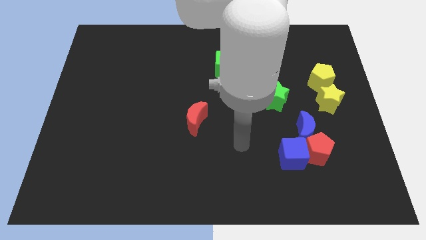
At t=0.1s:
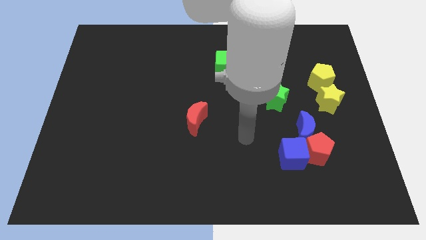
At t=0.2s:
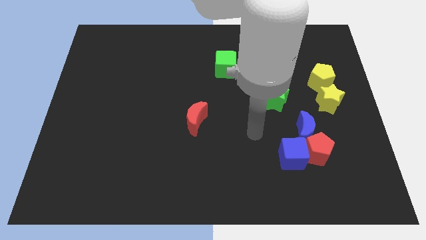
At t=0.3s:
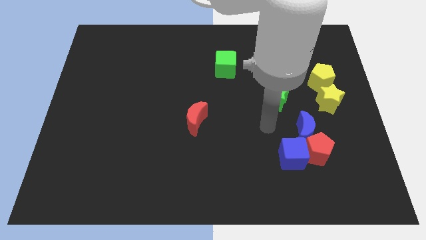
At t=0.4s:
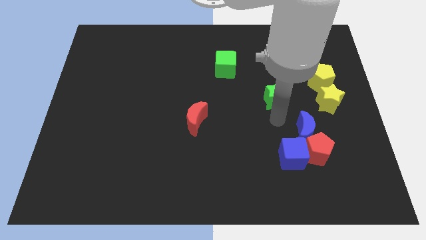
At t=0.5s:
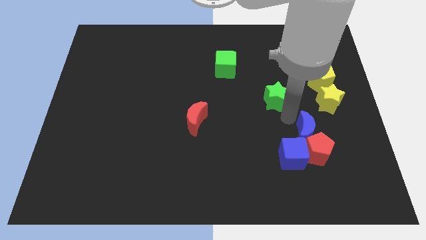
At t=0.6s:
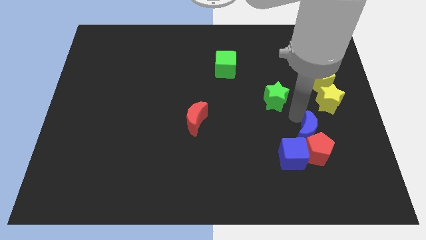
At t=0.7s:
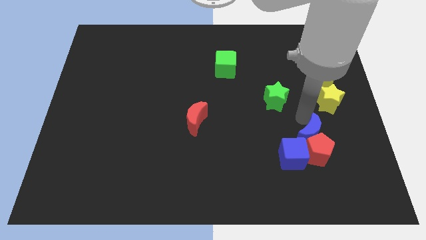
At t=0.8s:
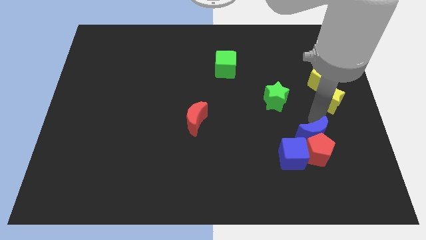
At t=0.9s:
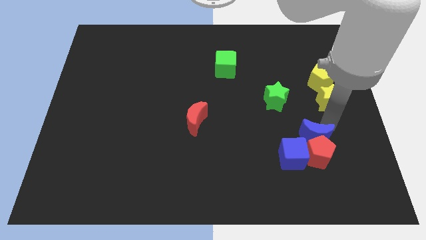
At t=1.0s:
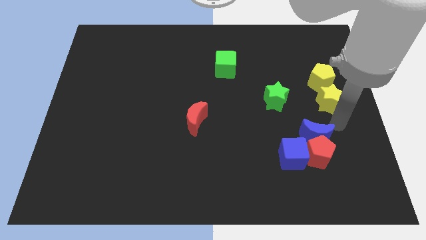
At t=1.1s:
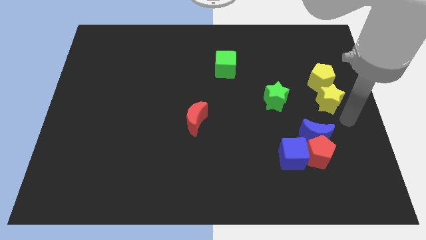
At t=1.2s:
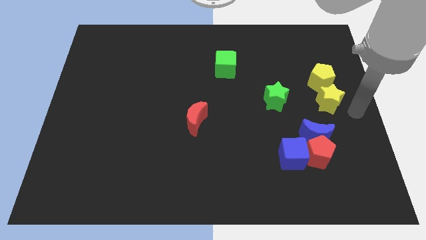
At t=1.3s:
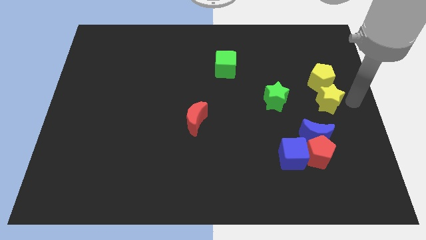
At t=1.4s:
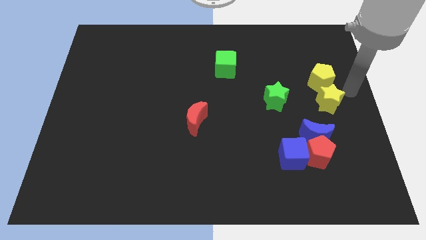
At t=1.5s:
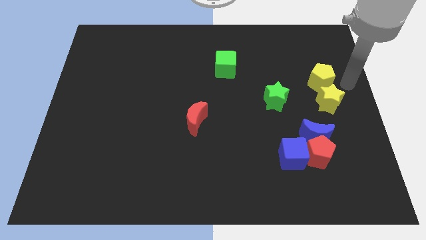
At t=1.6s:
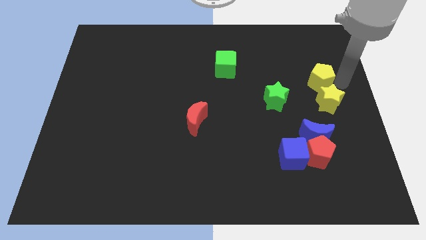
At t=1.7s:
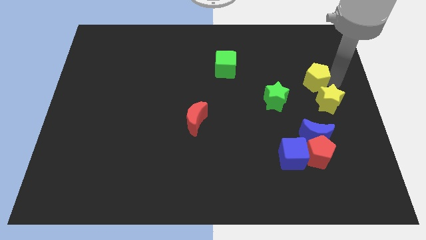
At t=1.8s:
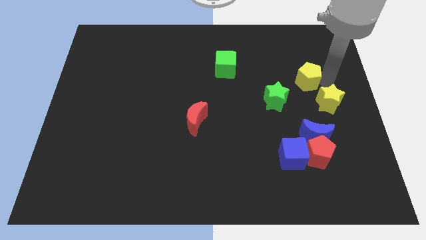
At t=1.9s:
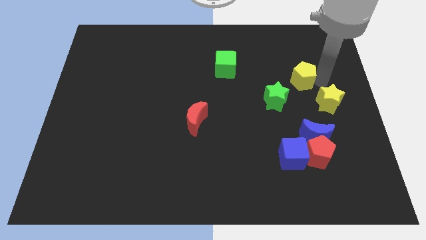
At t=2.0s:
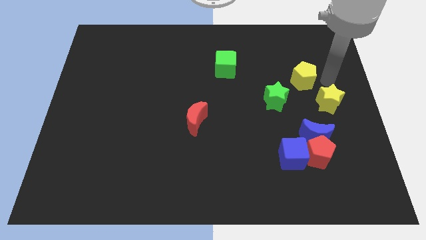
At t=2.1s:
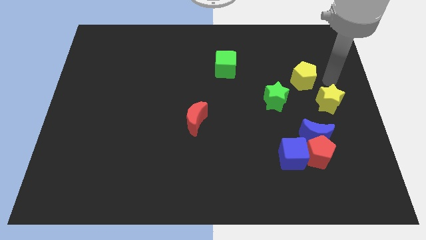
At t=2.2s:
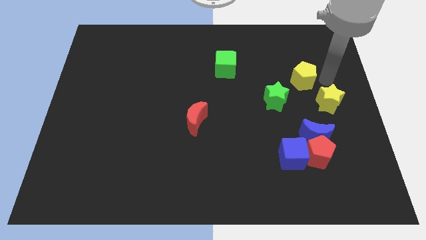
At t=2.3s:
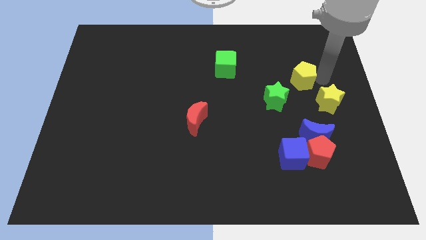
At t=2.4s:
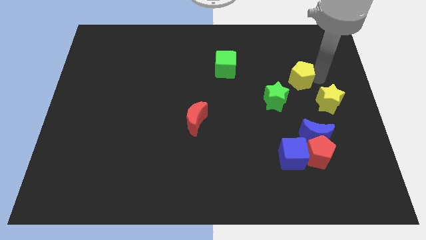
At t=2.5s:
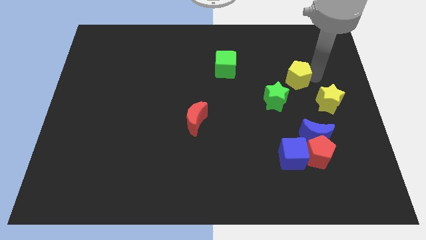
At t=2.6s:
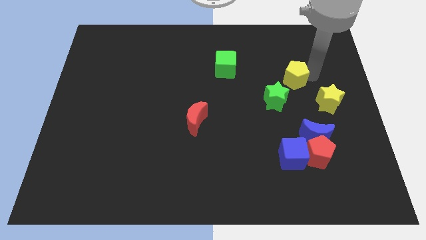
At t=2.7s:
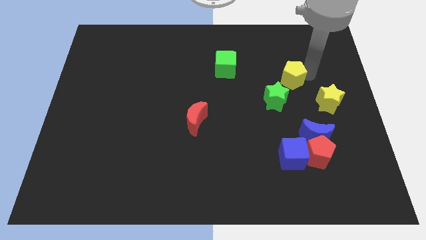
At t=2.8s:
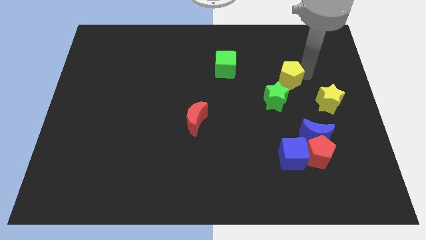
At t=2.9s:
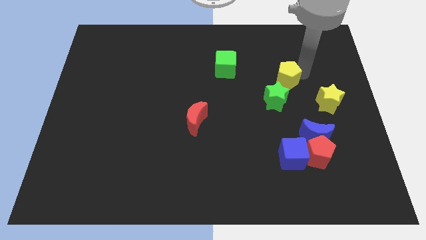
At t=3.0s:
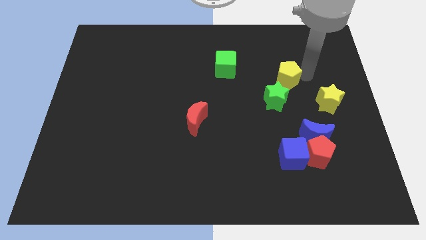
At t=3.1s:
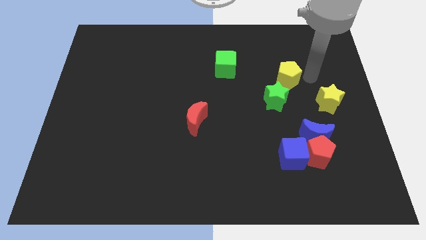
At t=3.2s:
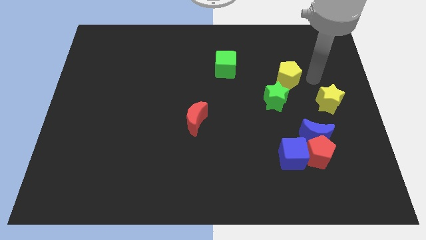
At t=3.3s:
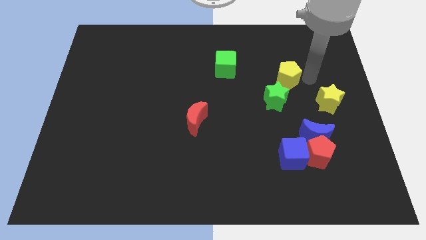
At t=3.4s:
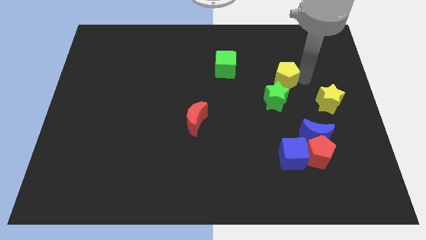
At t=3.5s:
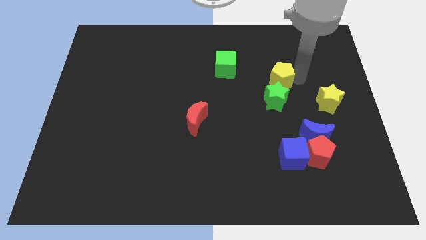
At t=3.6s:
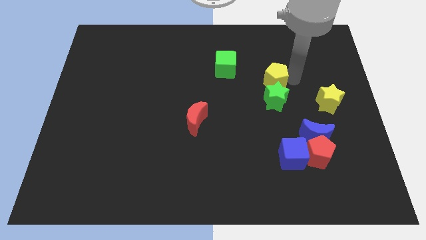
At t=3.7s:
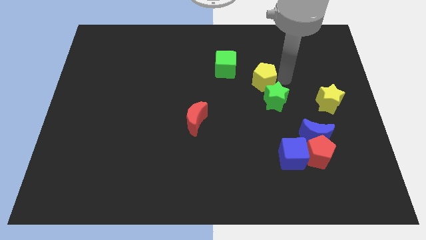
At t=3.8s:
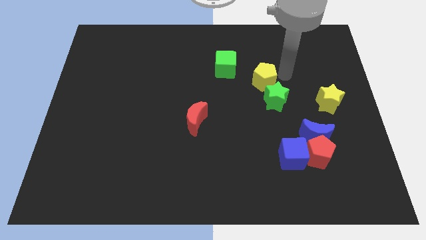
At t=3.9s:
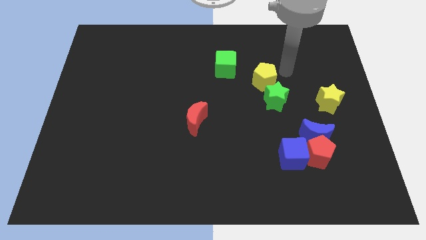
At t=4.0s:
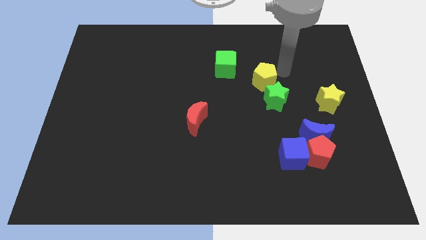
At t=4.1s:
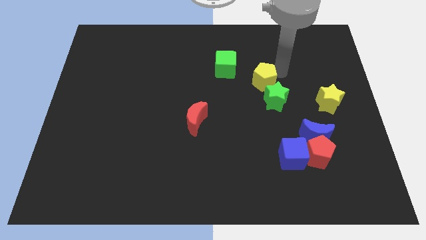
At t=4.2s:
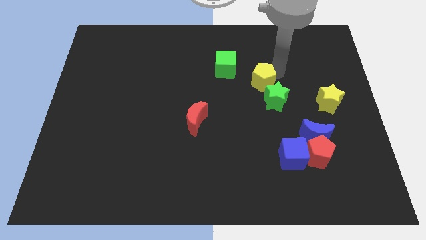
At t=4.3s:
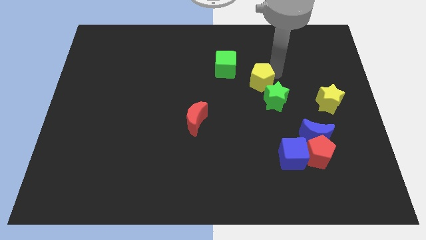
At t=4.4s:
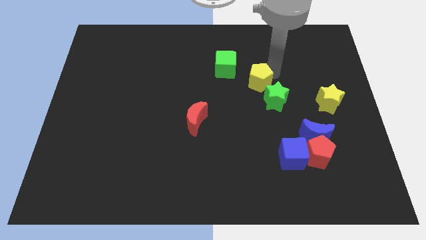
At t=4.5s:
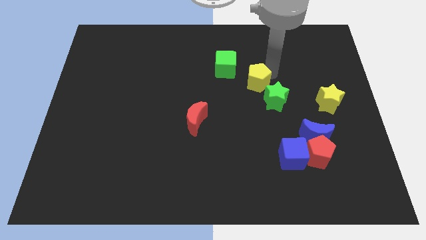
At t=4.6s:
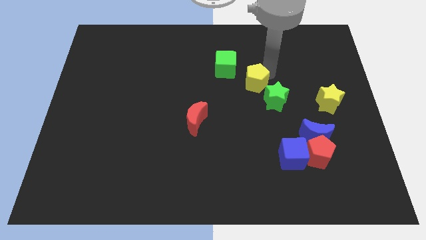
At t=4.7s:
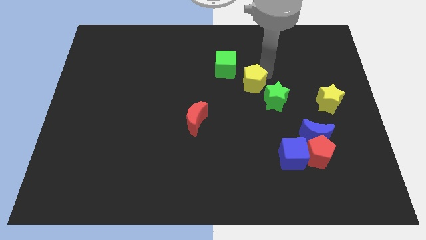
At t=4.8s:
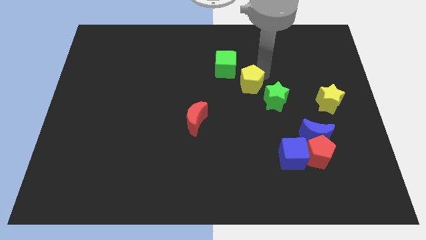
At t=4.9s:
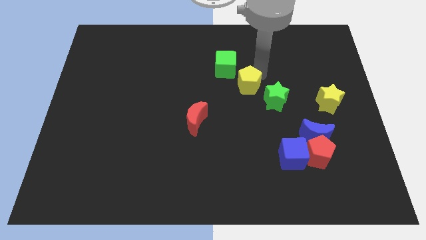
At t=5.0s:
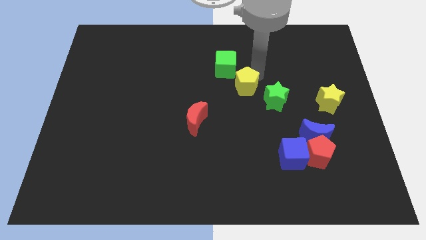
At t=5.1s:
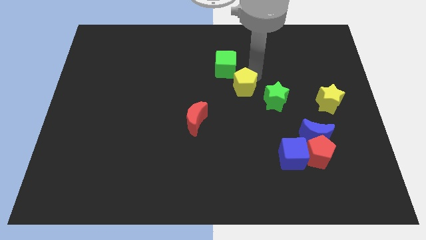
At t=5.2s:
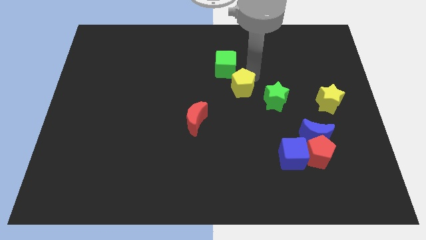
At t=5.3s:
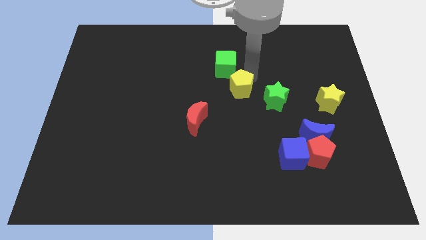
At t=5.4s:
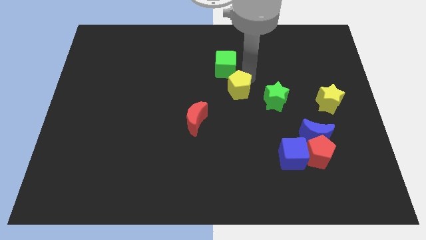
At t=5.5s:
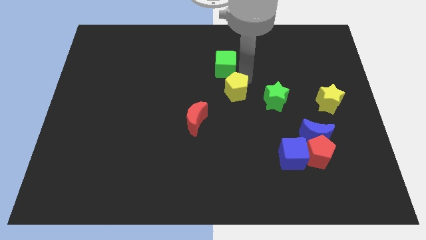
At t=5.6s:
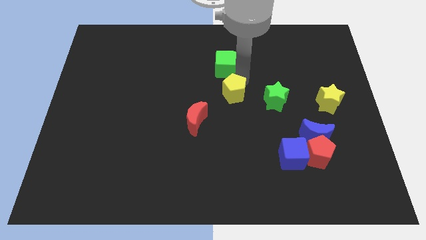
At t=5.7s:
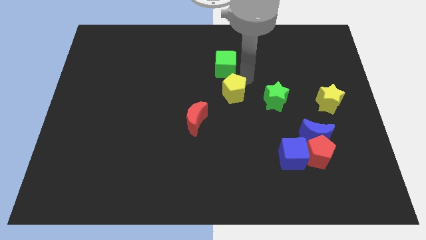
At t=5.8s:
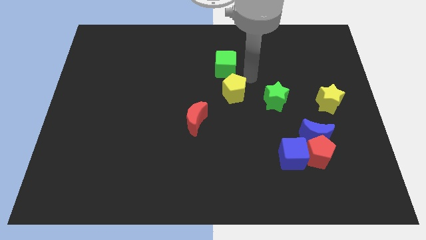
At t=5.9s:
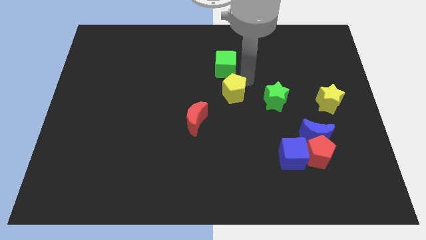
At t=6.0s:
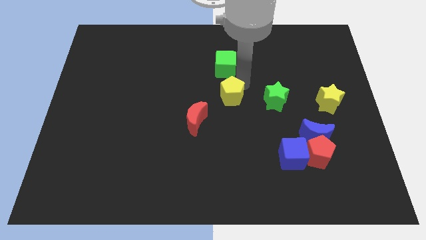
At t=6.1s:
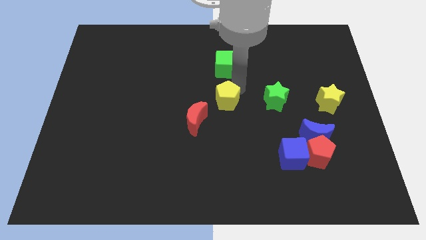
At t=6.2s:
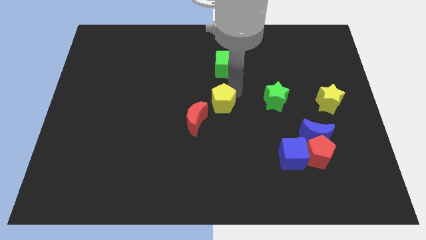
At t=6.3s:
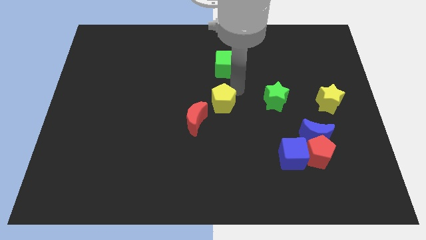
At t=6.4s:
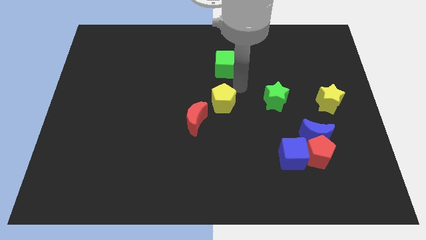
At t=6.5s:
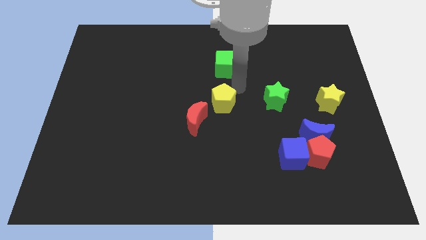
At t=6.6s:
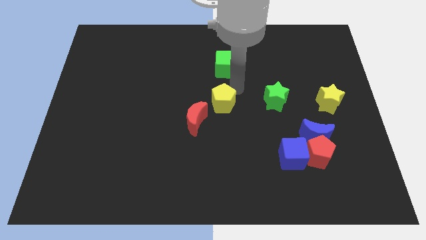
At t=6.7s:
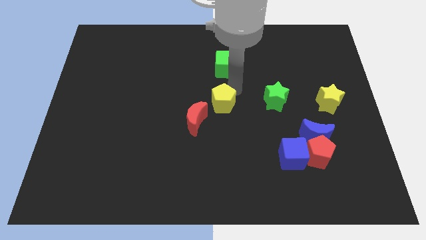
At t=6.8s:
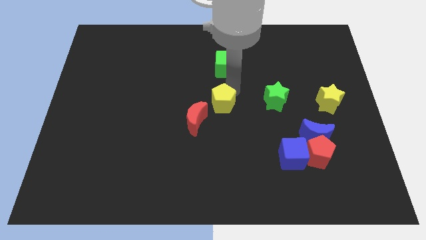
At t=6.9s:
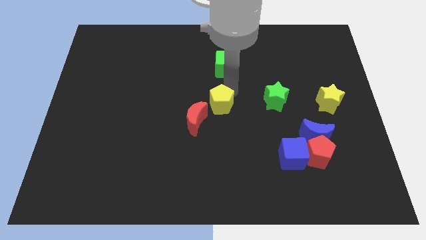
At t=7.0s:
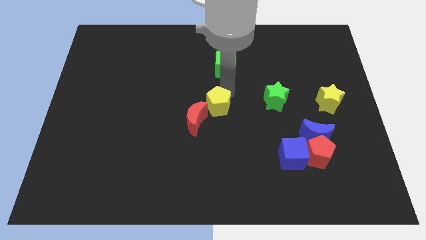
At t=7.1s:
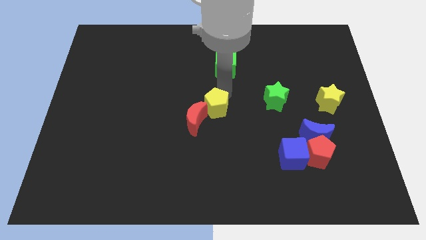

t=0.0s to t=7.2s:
move the yellow pentagon to the red moon

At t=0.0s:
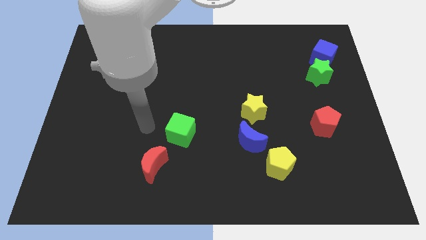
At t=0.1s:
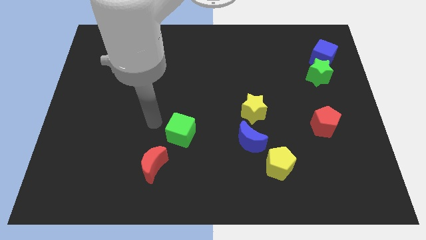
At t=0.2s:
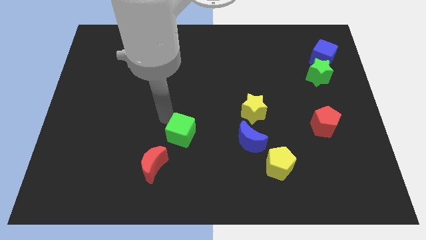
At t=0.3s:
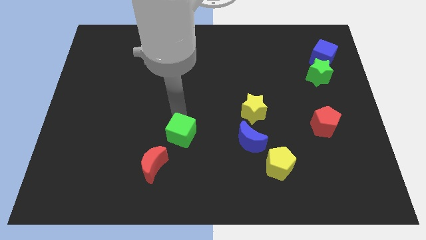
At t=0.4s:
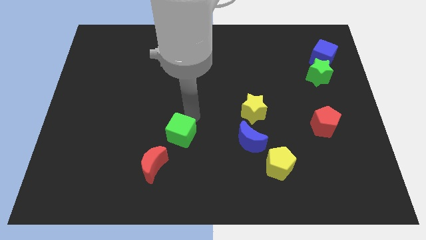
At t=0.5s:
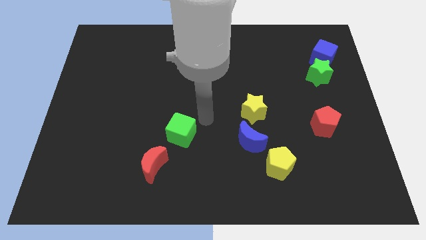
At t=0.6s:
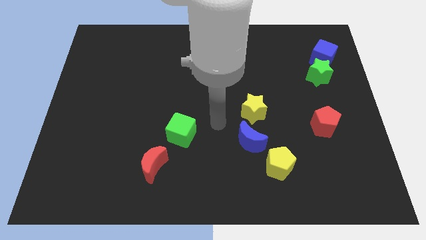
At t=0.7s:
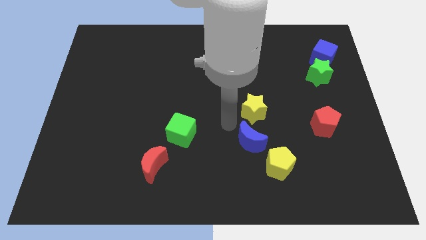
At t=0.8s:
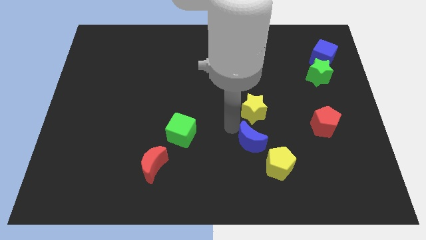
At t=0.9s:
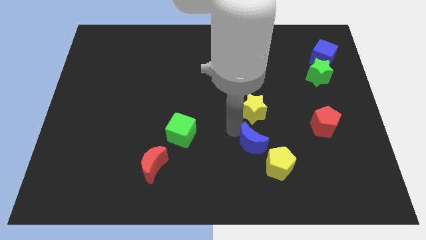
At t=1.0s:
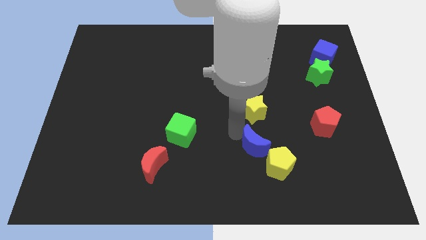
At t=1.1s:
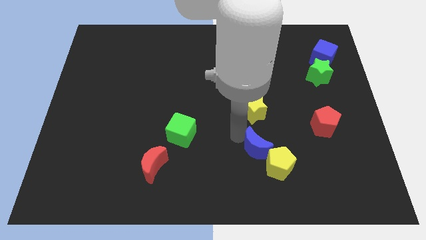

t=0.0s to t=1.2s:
move the blue moon close to the yellow pentagon

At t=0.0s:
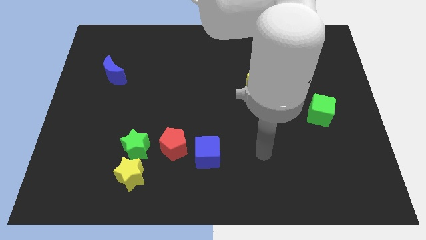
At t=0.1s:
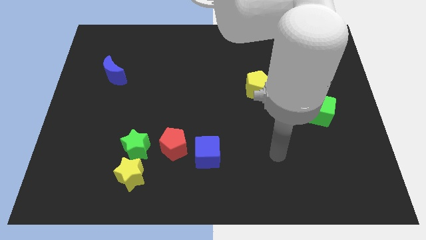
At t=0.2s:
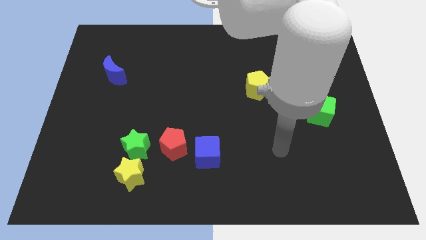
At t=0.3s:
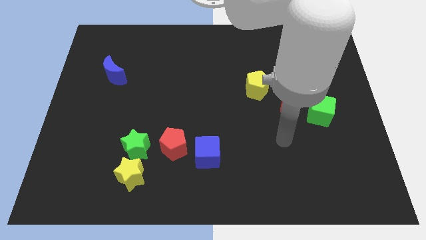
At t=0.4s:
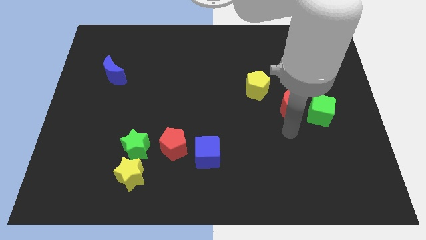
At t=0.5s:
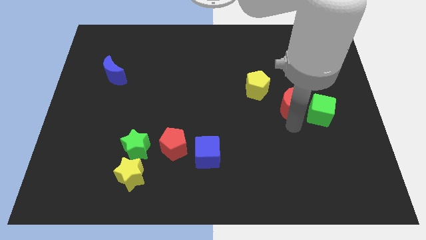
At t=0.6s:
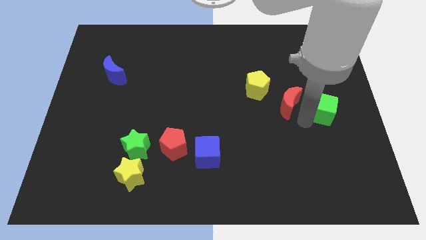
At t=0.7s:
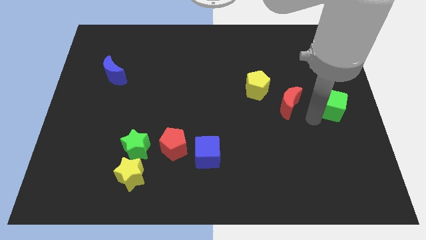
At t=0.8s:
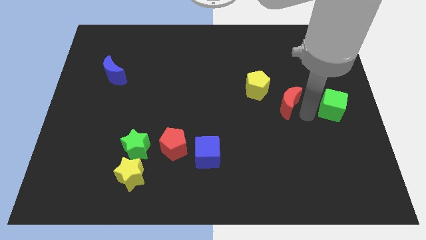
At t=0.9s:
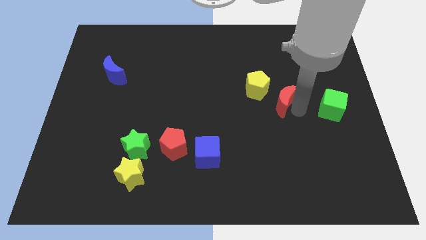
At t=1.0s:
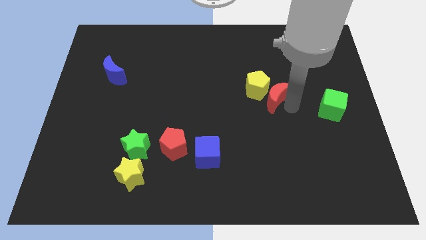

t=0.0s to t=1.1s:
slide the red moon towards the yellow pentagon
